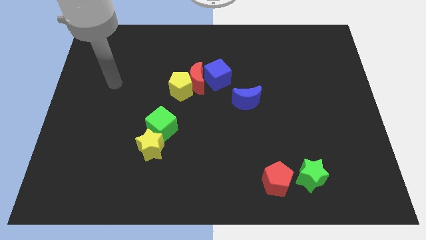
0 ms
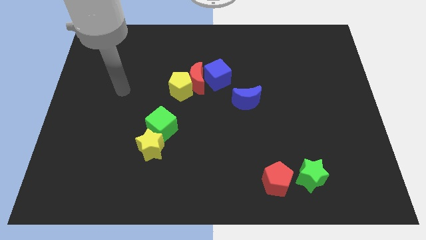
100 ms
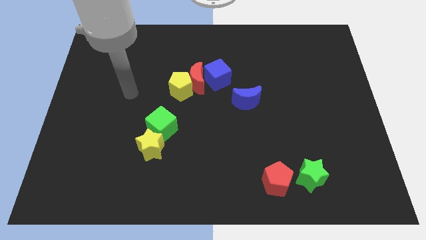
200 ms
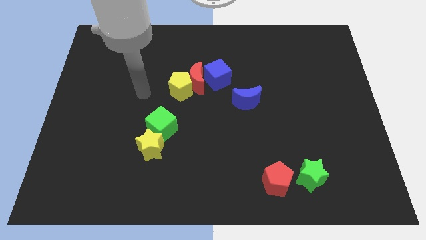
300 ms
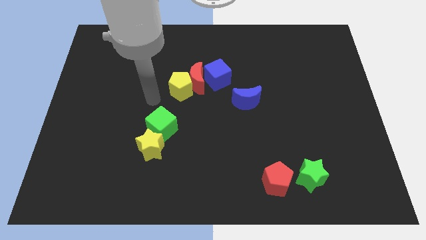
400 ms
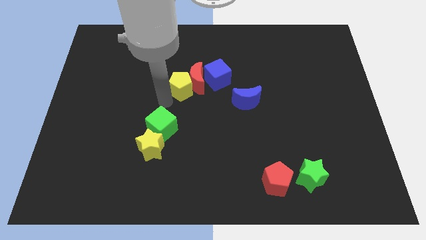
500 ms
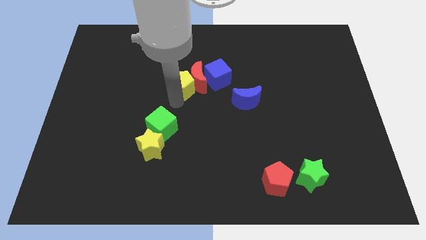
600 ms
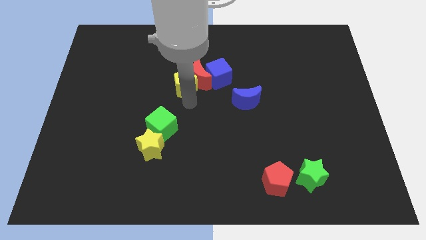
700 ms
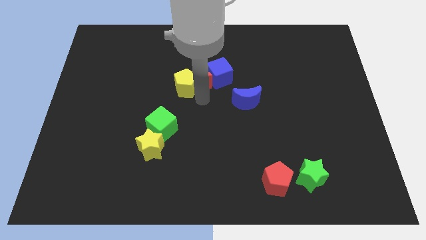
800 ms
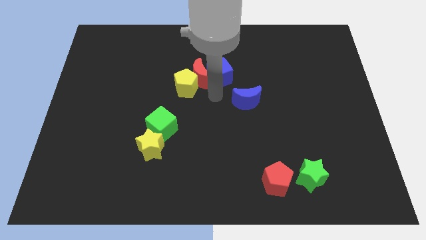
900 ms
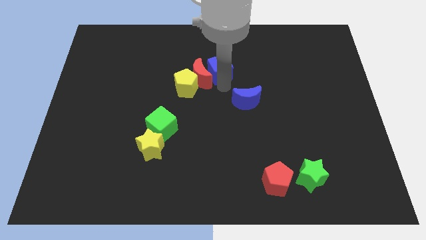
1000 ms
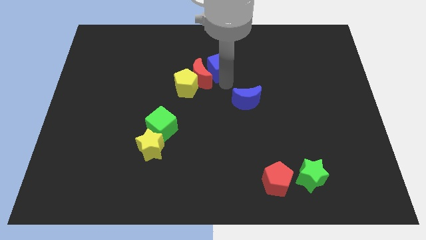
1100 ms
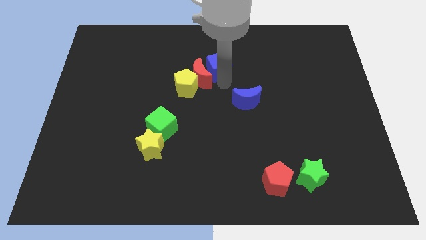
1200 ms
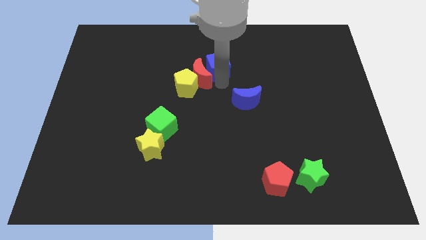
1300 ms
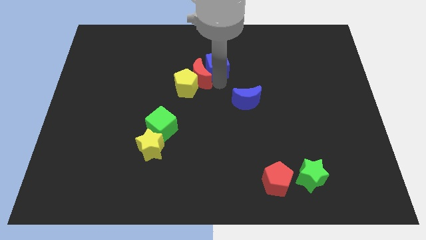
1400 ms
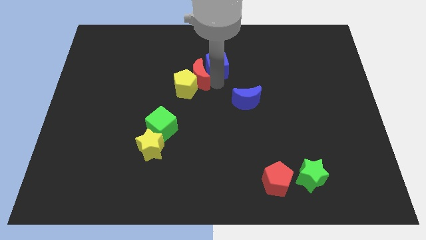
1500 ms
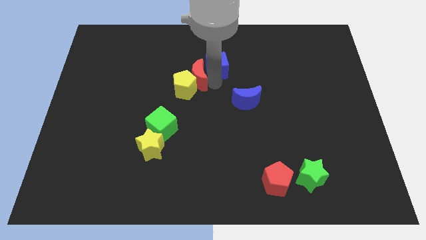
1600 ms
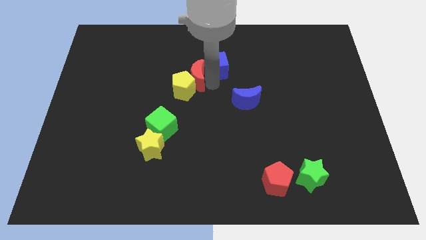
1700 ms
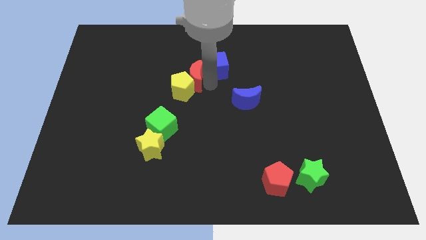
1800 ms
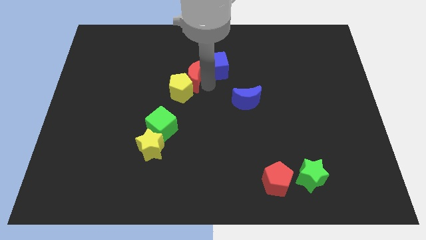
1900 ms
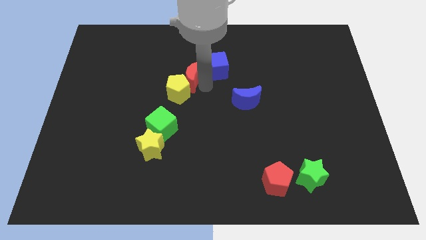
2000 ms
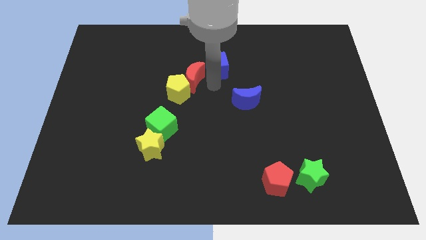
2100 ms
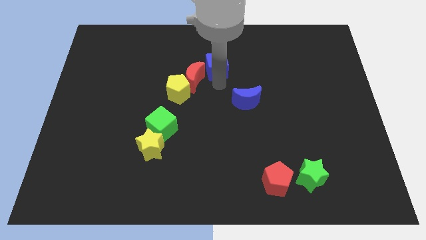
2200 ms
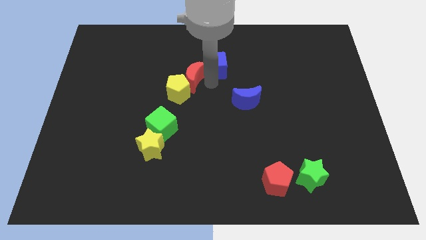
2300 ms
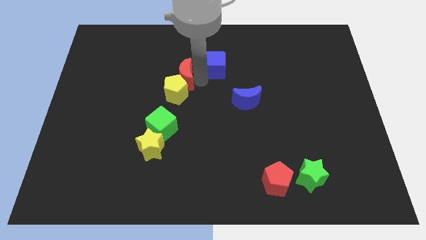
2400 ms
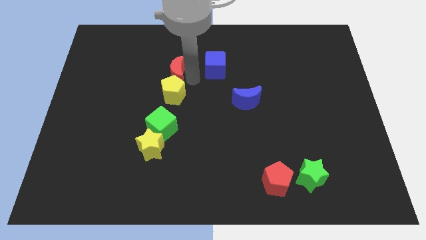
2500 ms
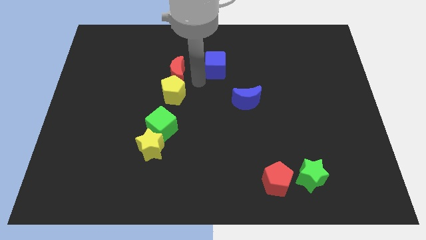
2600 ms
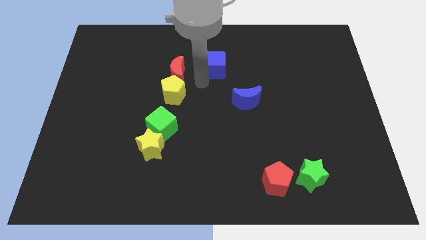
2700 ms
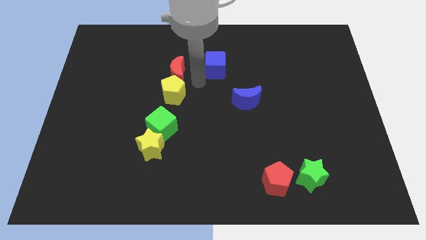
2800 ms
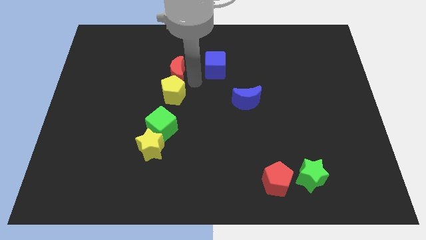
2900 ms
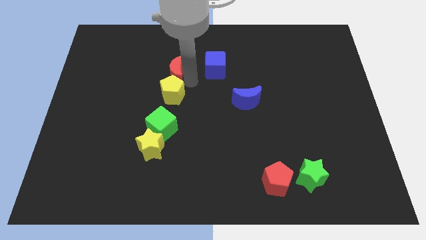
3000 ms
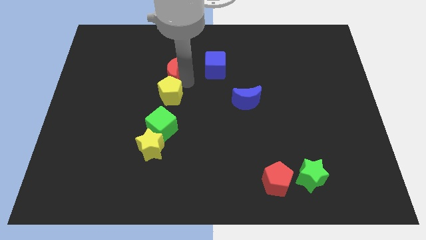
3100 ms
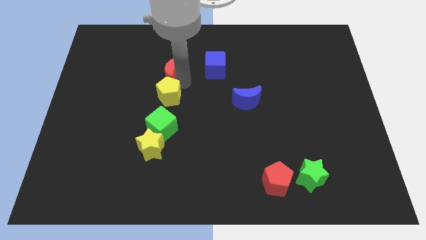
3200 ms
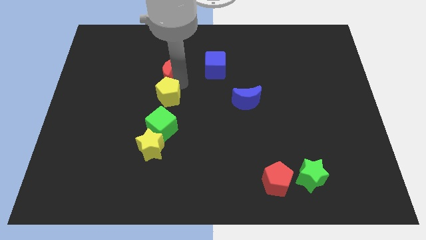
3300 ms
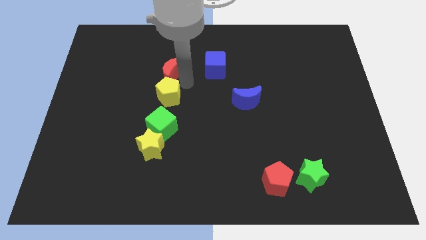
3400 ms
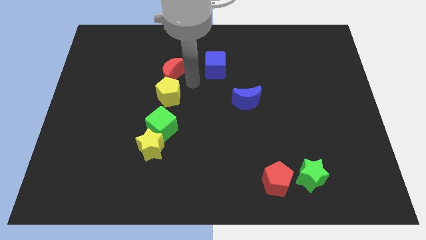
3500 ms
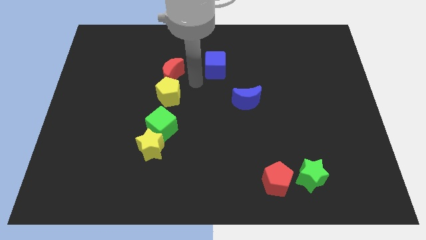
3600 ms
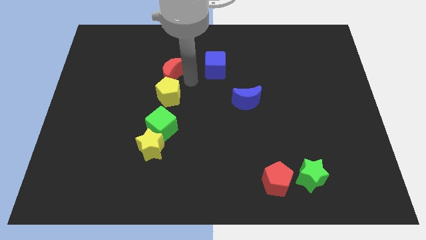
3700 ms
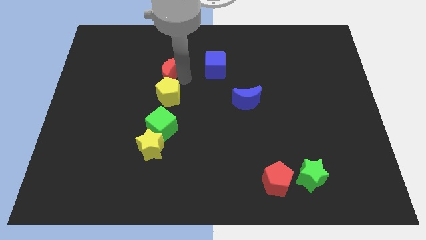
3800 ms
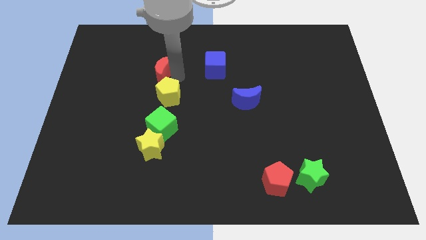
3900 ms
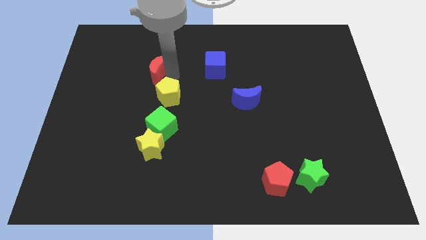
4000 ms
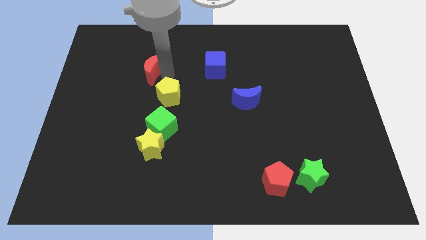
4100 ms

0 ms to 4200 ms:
separate the red moon from the yellow pentagon and blue cube

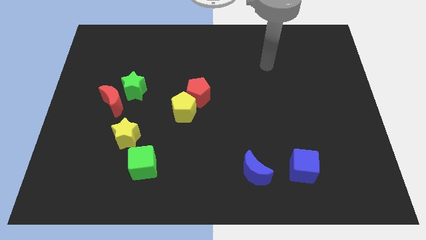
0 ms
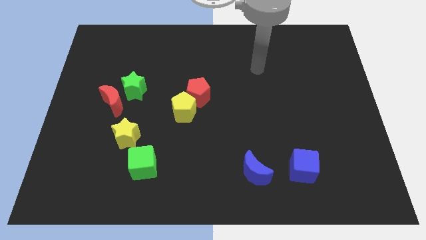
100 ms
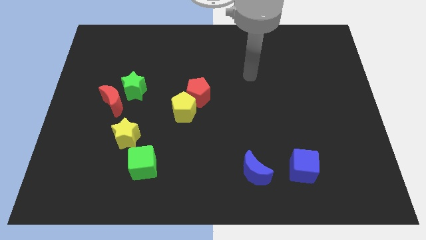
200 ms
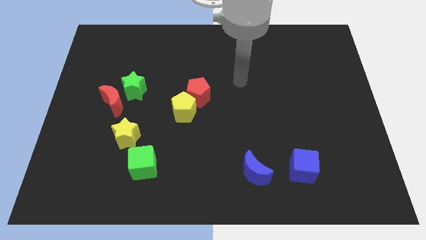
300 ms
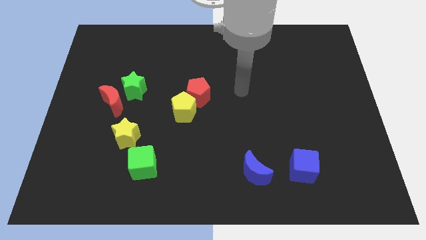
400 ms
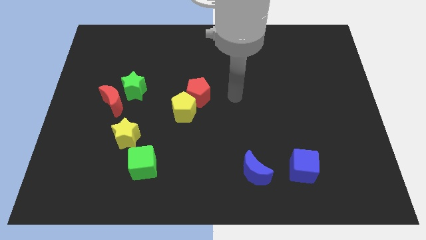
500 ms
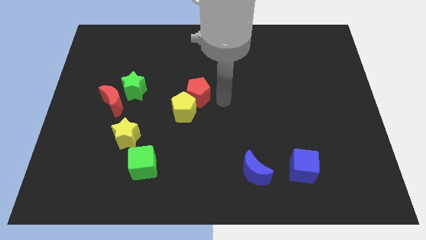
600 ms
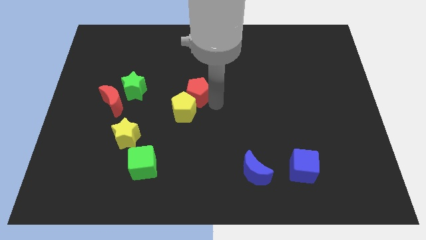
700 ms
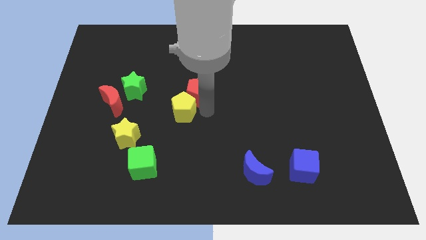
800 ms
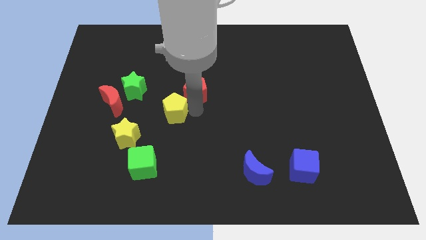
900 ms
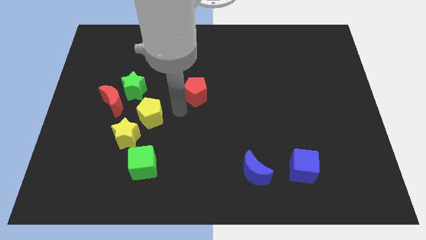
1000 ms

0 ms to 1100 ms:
pull the red pentagon apart from the yellow pentagon

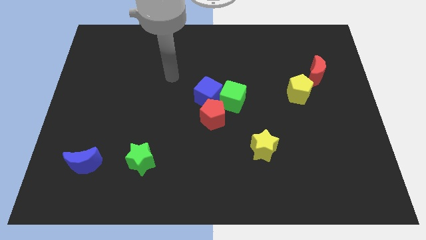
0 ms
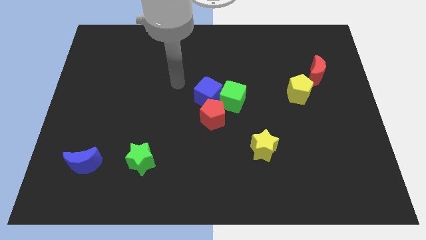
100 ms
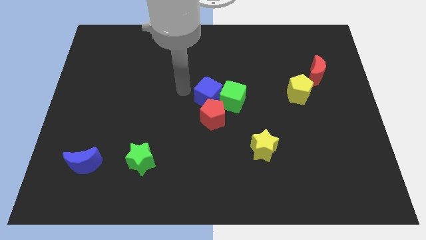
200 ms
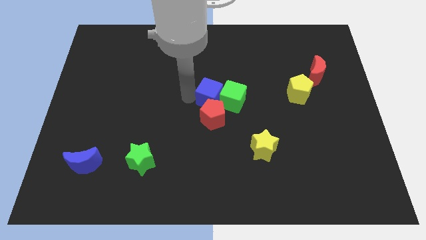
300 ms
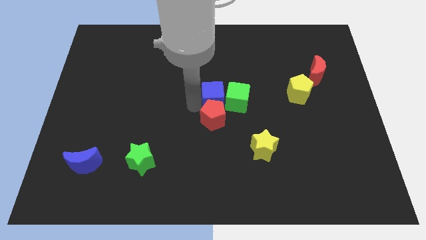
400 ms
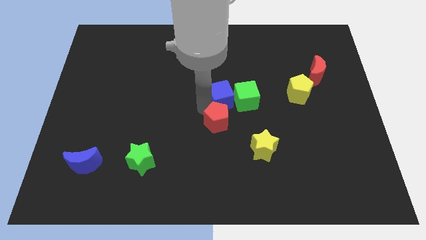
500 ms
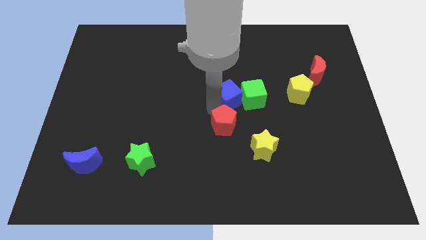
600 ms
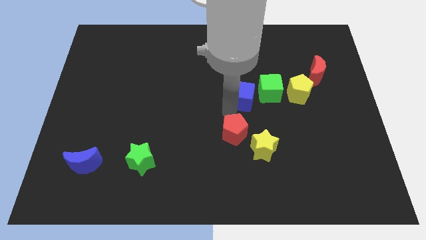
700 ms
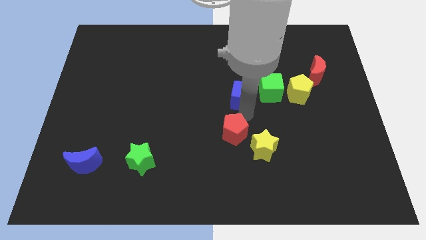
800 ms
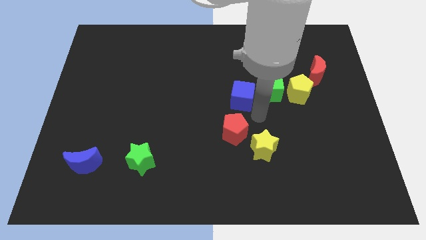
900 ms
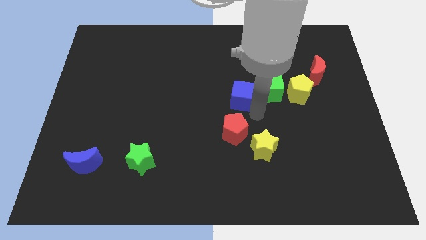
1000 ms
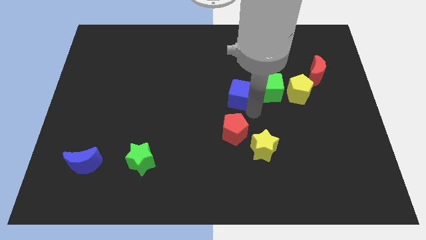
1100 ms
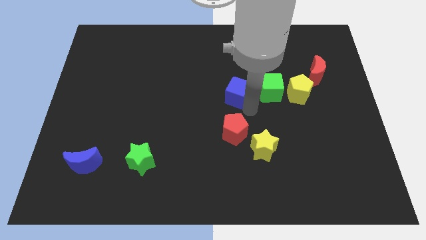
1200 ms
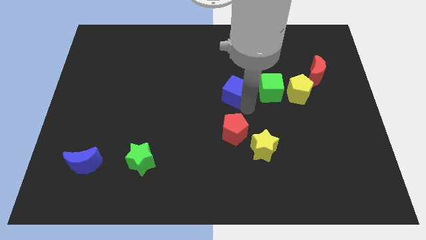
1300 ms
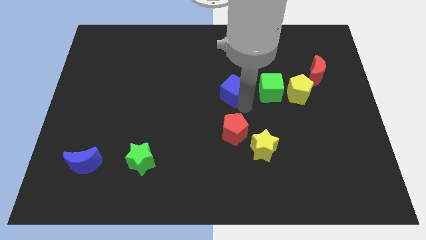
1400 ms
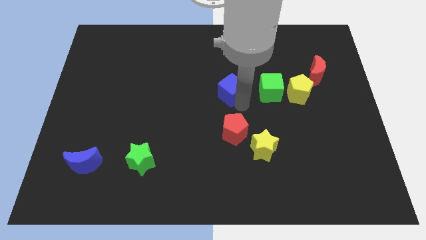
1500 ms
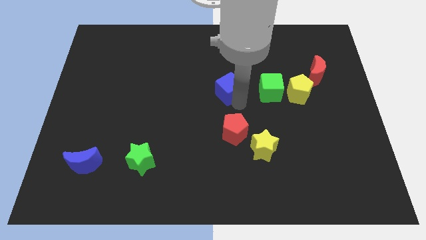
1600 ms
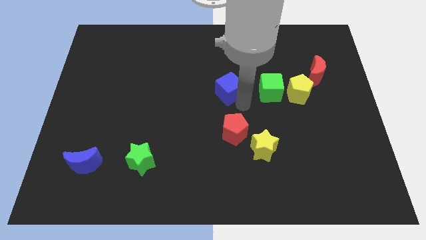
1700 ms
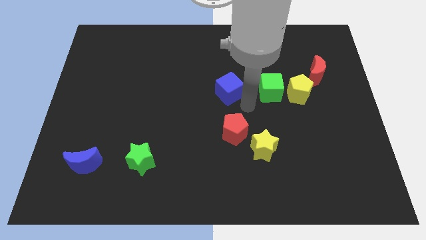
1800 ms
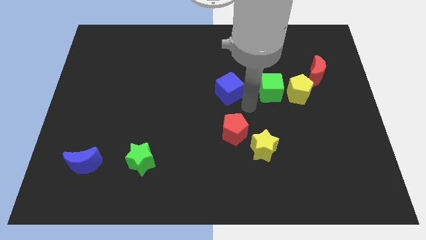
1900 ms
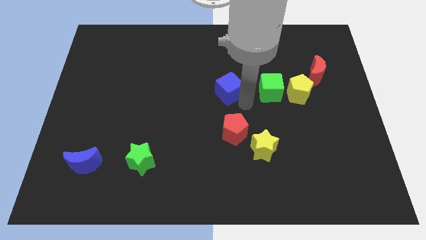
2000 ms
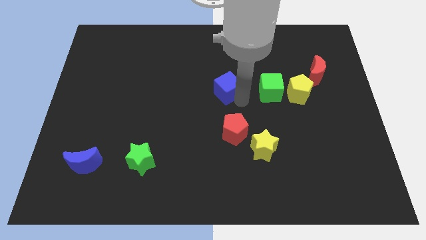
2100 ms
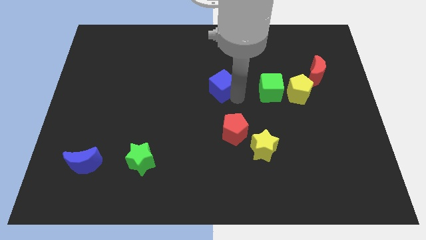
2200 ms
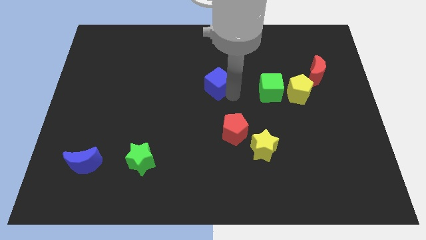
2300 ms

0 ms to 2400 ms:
move the blue cube away from the green cube and red pentagon

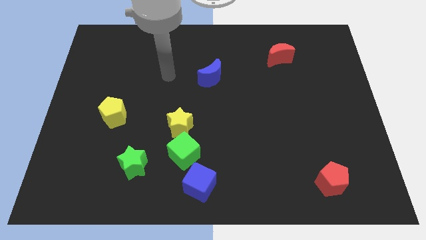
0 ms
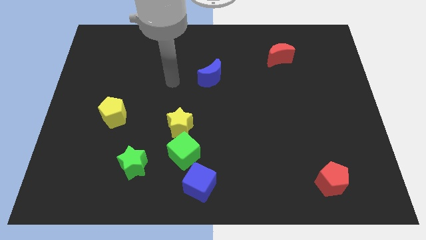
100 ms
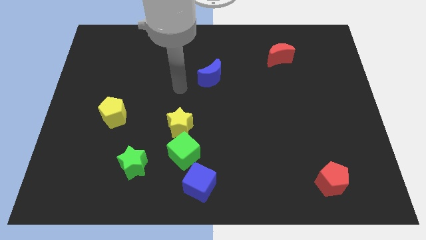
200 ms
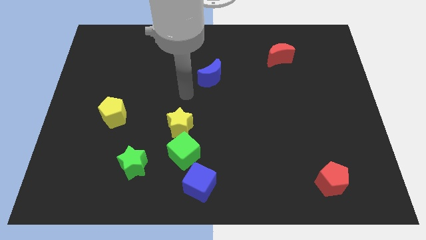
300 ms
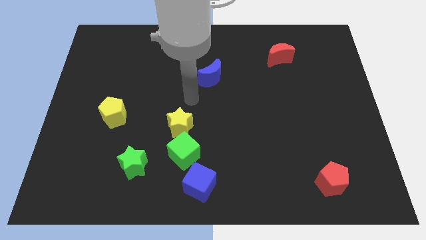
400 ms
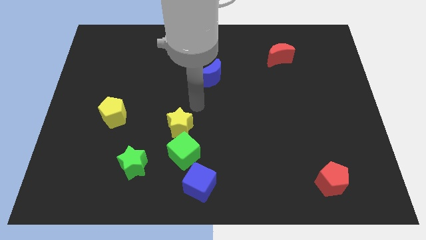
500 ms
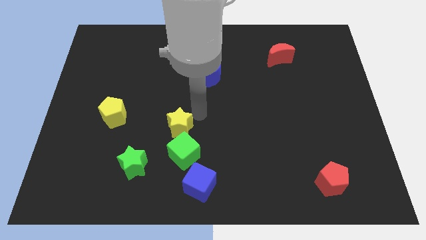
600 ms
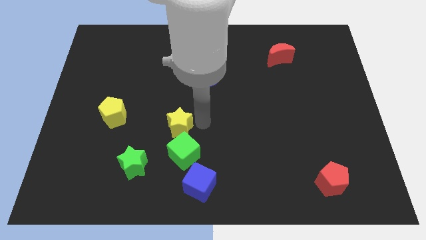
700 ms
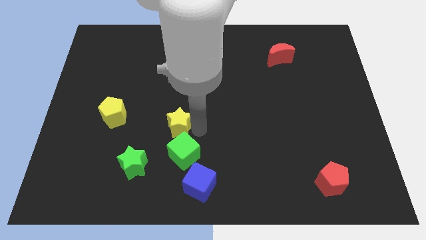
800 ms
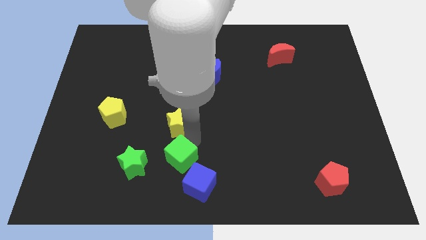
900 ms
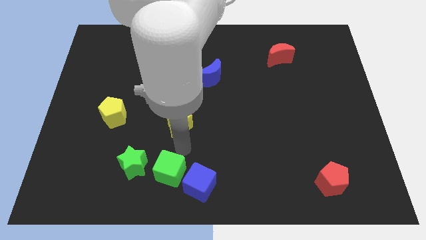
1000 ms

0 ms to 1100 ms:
separate the yellow star from the green cube

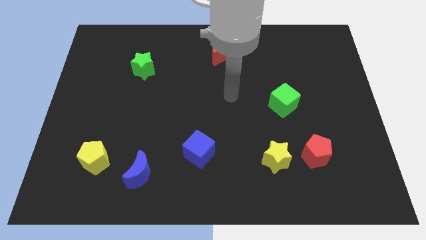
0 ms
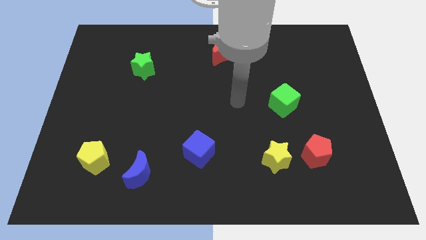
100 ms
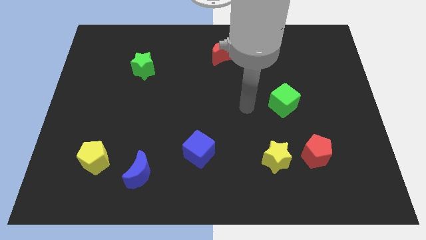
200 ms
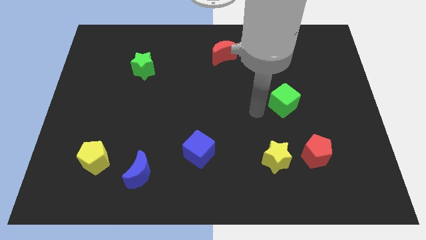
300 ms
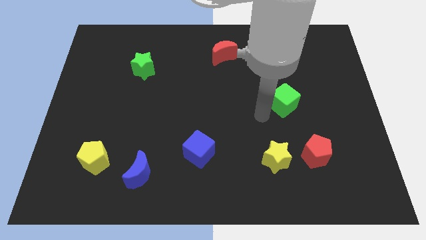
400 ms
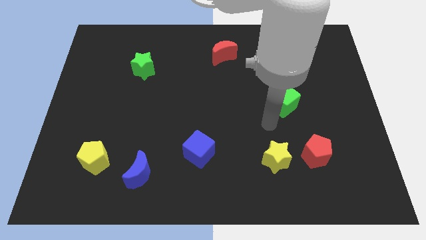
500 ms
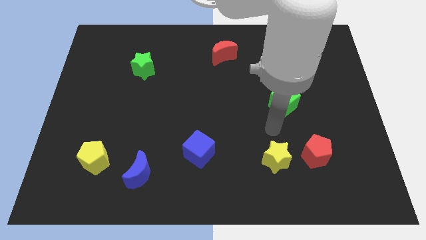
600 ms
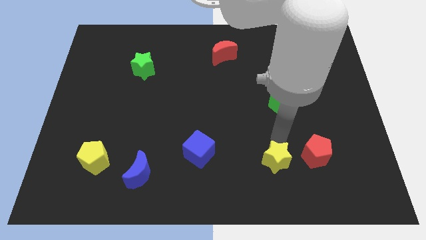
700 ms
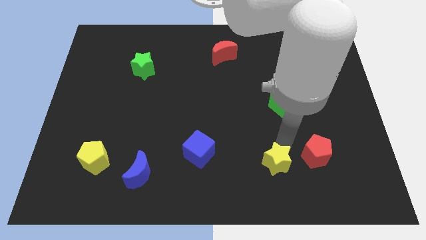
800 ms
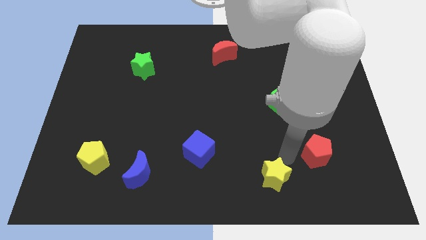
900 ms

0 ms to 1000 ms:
pull the red pentagon apart from the yellow star
